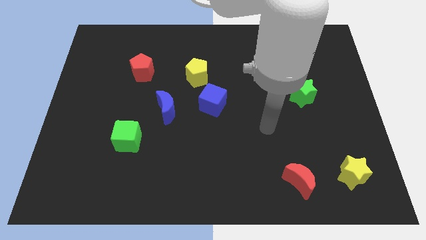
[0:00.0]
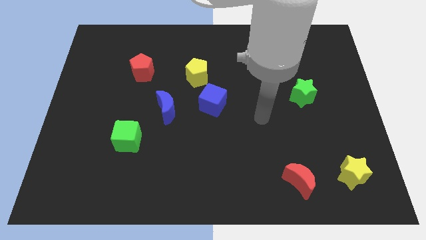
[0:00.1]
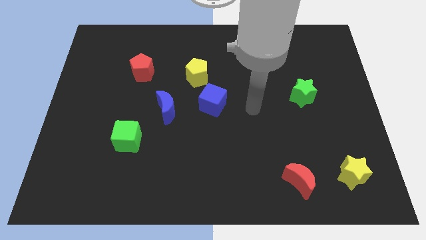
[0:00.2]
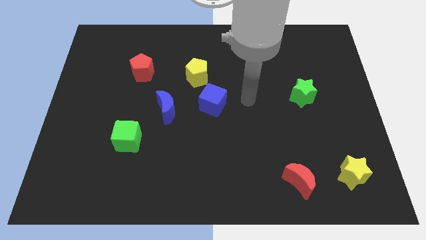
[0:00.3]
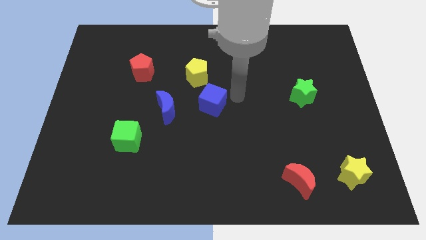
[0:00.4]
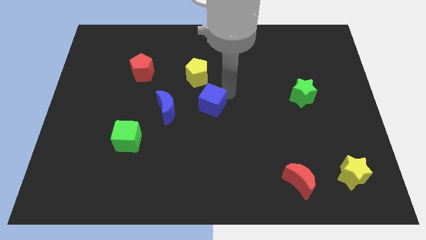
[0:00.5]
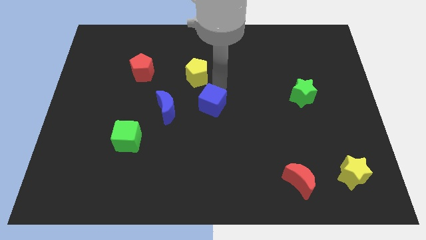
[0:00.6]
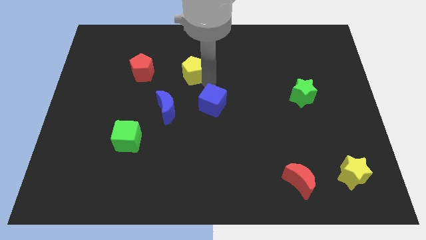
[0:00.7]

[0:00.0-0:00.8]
move the blue cube away from the yellow pentagon

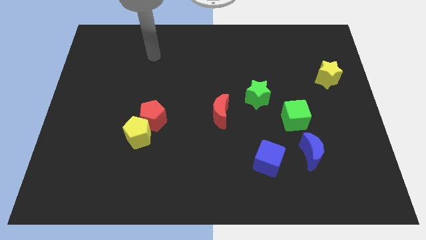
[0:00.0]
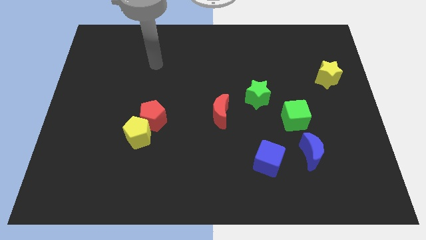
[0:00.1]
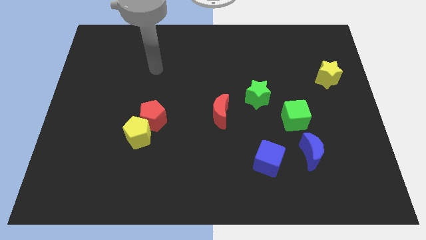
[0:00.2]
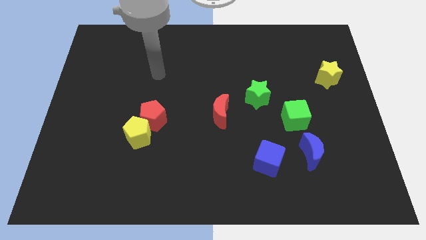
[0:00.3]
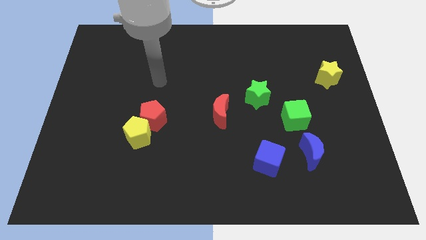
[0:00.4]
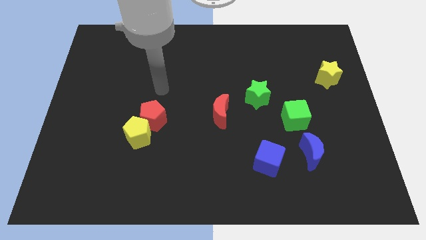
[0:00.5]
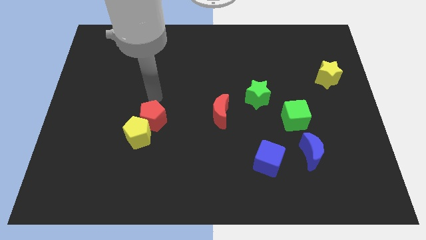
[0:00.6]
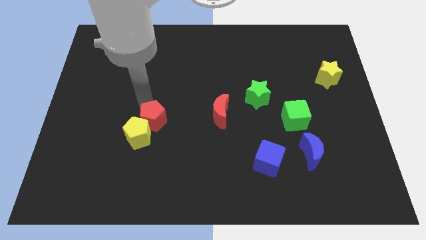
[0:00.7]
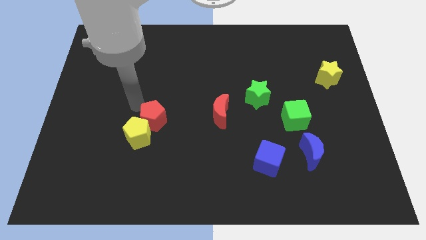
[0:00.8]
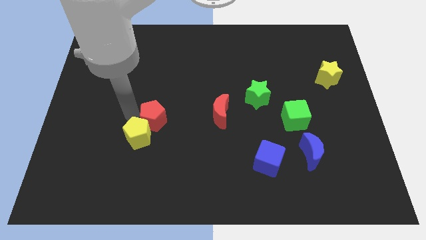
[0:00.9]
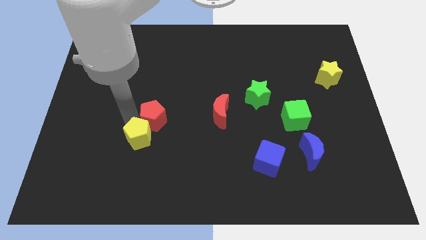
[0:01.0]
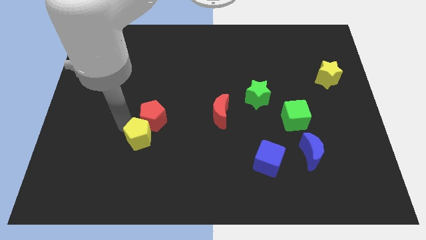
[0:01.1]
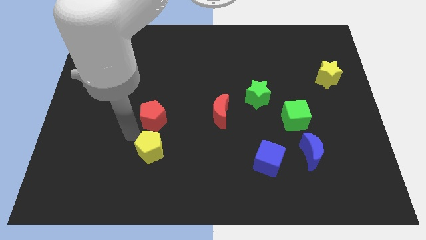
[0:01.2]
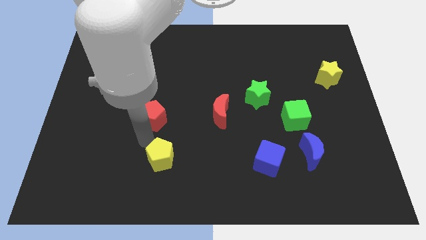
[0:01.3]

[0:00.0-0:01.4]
pull the red pentagon apart from the yellow pentagon

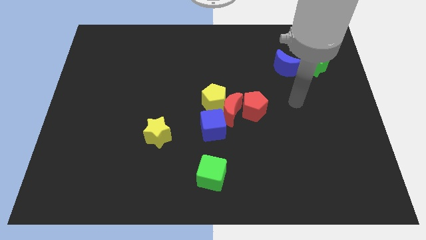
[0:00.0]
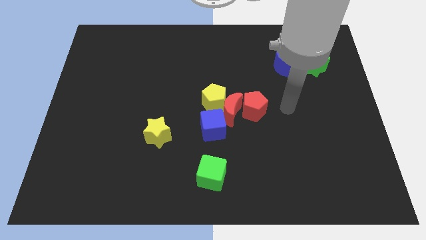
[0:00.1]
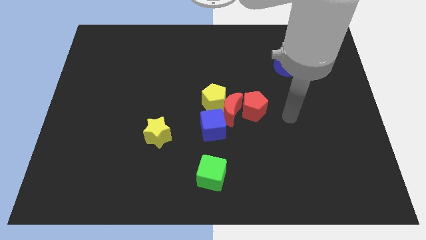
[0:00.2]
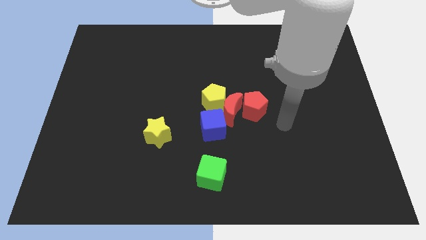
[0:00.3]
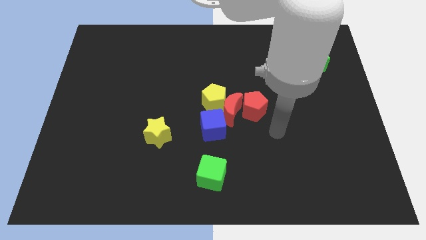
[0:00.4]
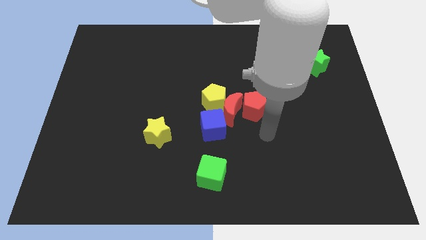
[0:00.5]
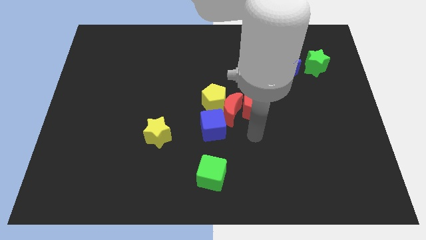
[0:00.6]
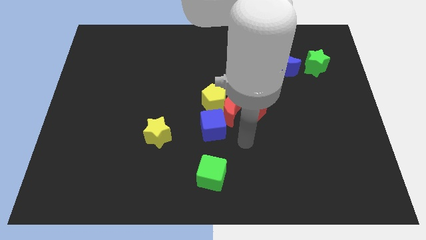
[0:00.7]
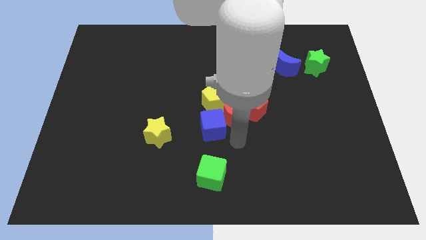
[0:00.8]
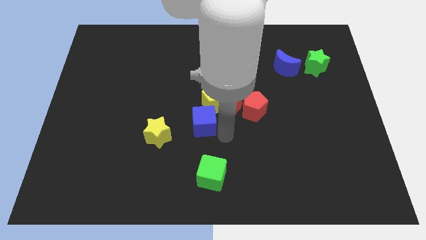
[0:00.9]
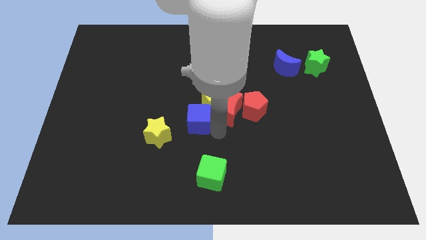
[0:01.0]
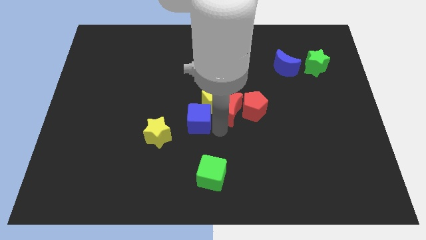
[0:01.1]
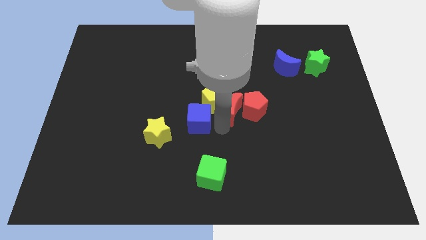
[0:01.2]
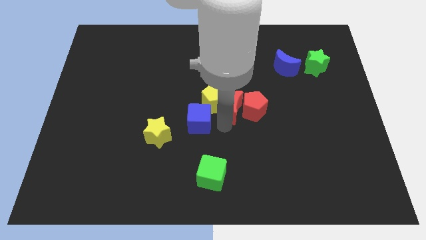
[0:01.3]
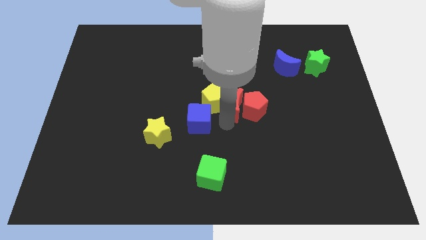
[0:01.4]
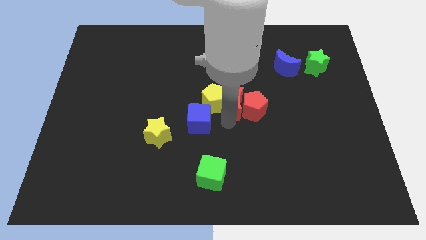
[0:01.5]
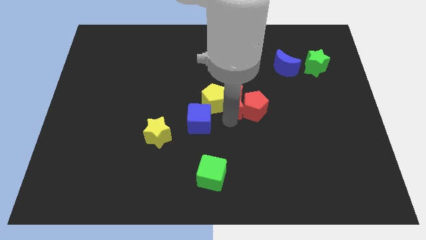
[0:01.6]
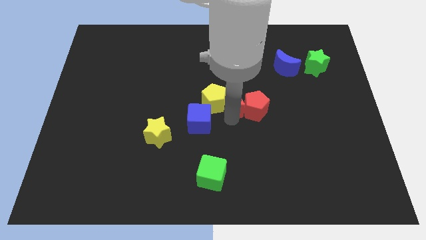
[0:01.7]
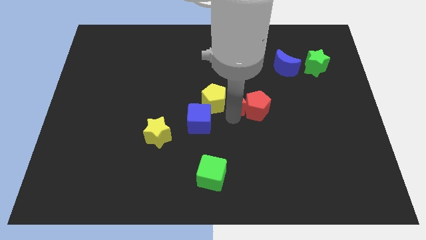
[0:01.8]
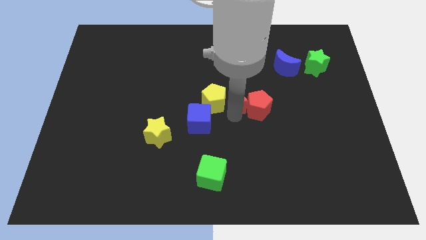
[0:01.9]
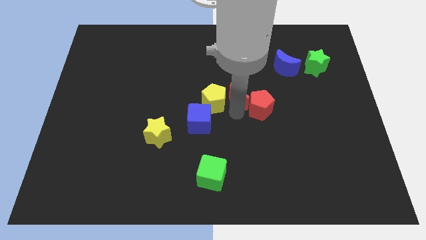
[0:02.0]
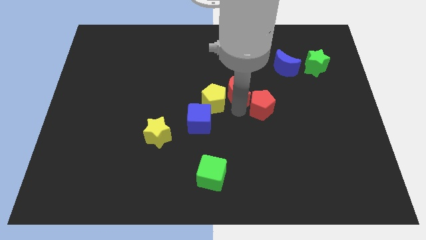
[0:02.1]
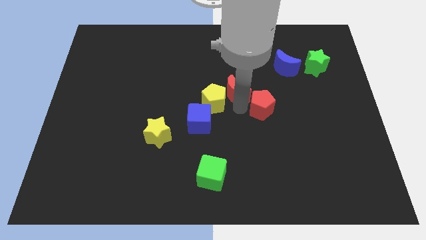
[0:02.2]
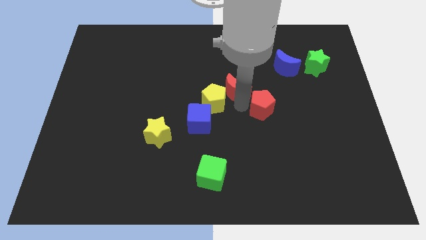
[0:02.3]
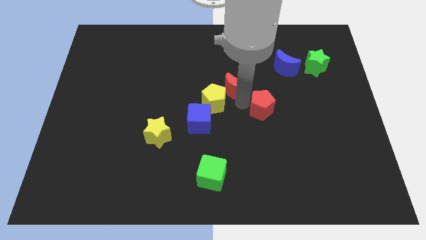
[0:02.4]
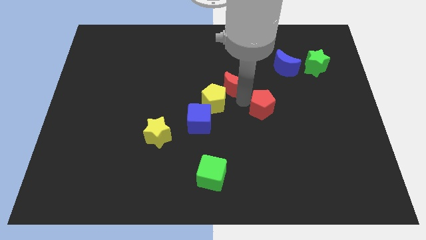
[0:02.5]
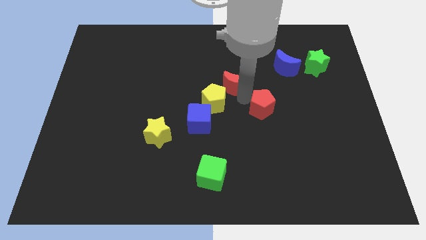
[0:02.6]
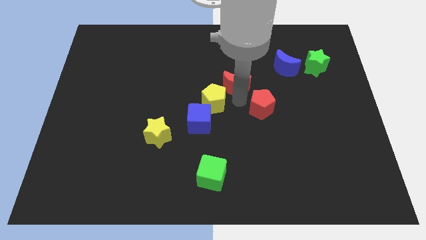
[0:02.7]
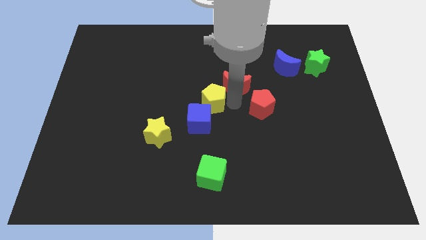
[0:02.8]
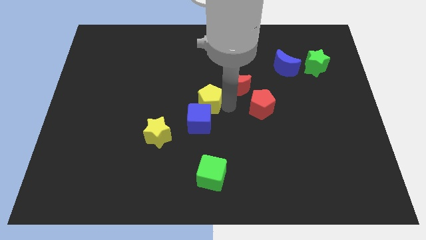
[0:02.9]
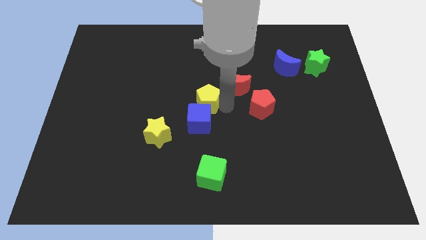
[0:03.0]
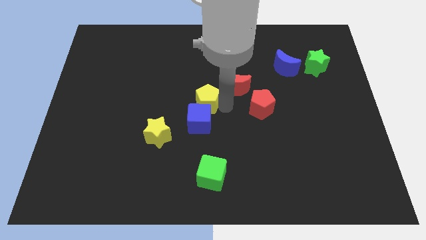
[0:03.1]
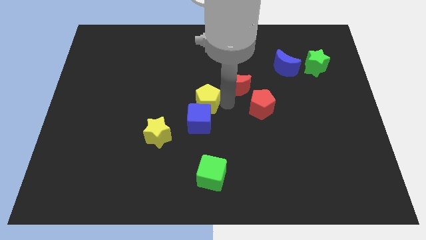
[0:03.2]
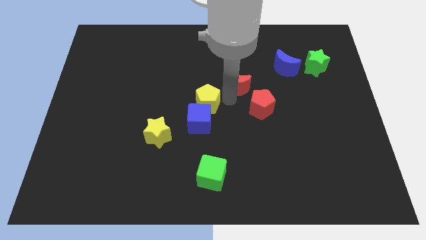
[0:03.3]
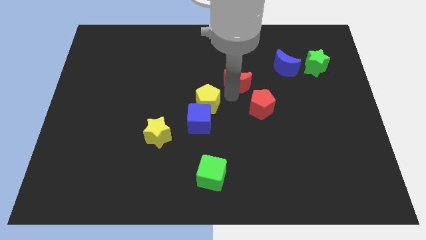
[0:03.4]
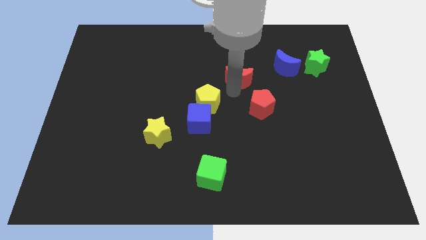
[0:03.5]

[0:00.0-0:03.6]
move the red moon away from the yellow pentagon, red pentagon, and blue cube

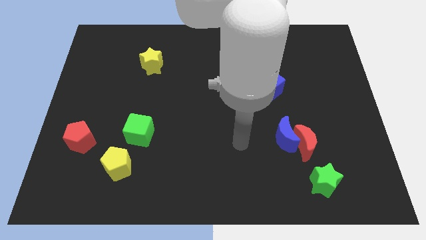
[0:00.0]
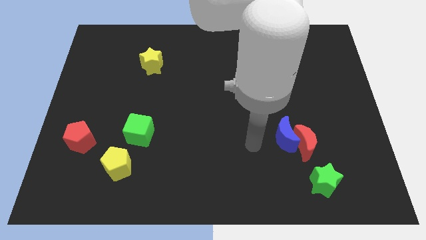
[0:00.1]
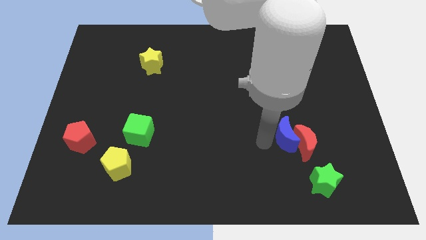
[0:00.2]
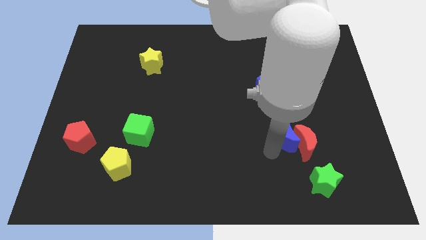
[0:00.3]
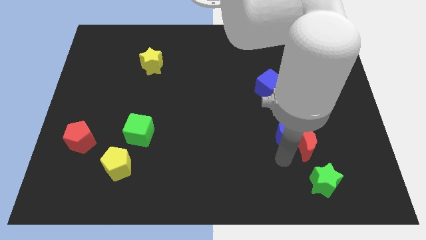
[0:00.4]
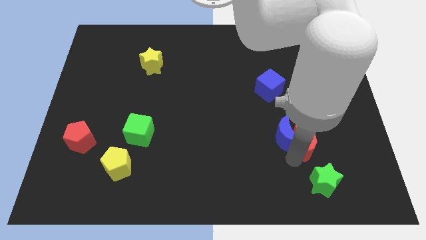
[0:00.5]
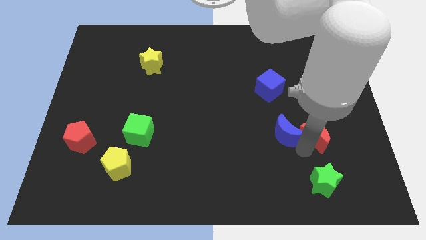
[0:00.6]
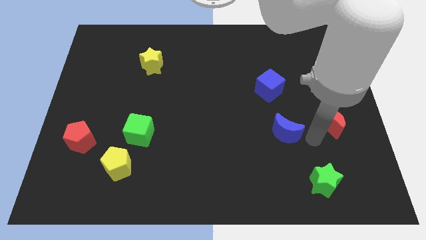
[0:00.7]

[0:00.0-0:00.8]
pull the blue moon apart from the red moon

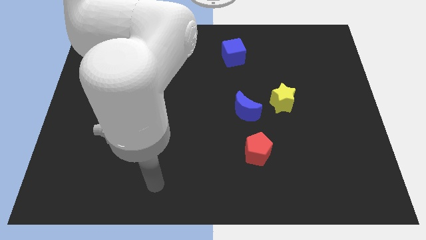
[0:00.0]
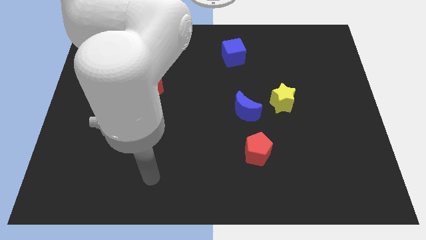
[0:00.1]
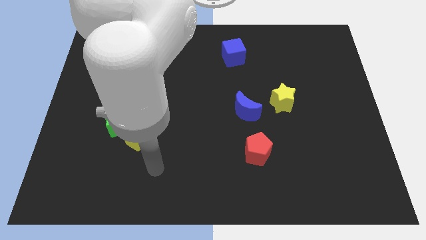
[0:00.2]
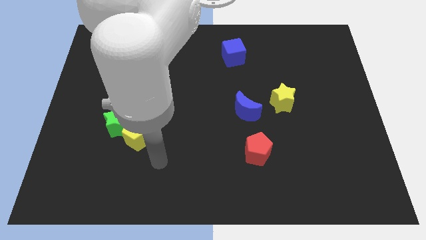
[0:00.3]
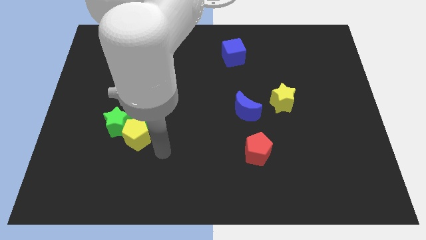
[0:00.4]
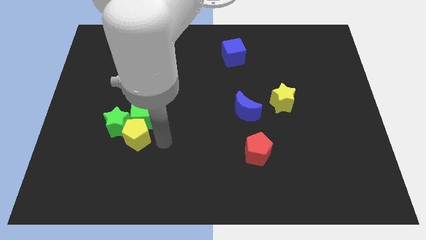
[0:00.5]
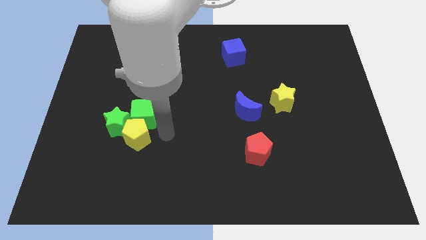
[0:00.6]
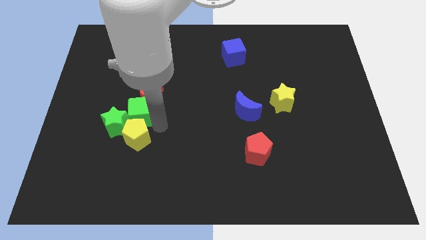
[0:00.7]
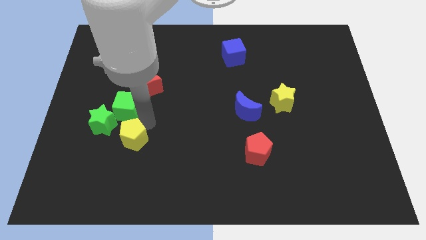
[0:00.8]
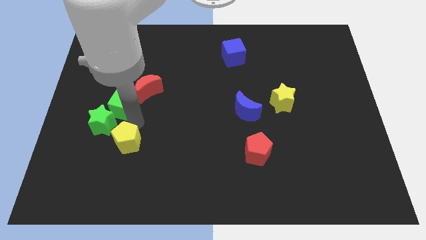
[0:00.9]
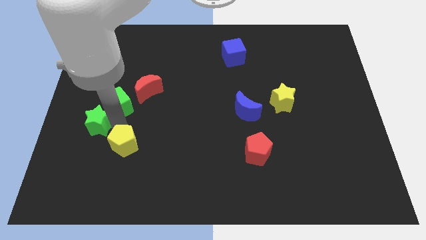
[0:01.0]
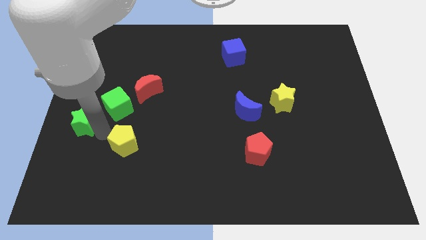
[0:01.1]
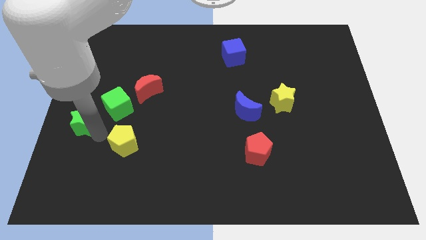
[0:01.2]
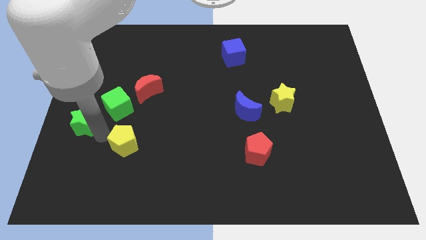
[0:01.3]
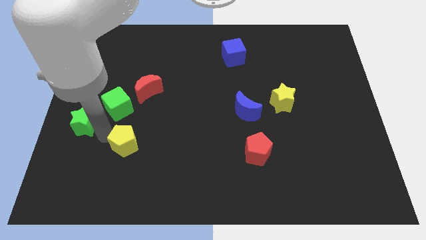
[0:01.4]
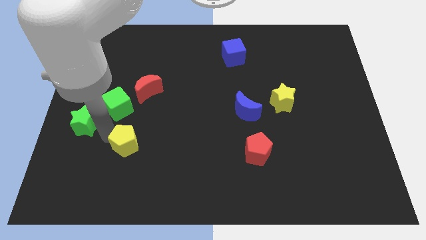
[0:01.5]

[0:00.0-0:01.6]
separate the yellow pentagon from the green cube and green star

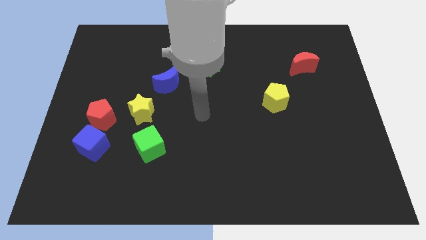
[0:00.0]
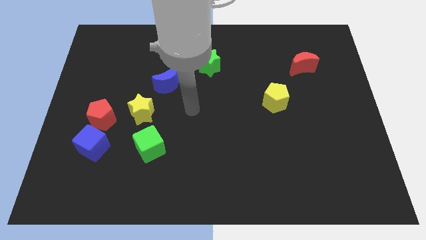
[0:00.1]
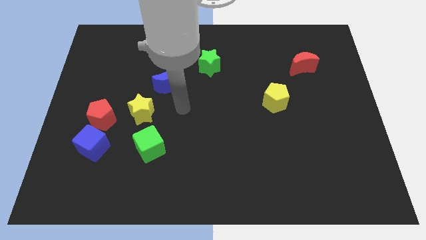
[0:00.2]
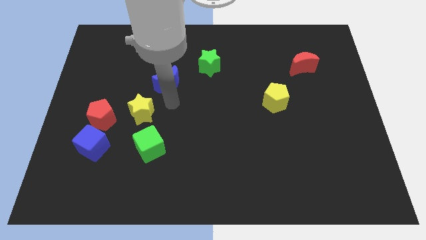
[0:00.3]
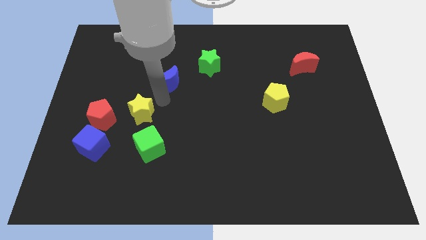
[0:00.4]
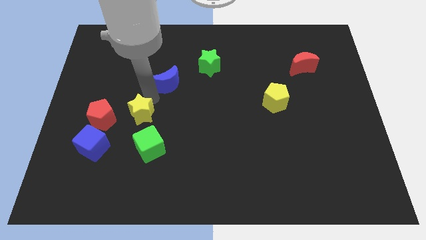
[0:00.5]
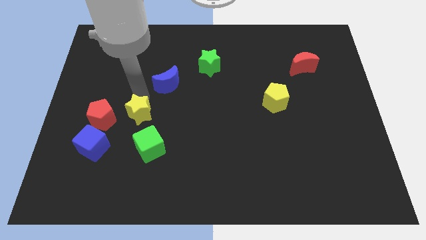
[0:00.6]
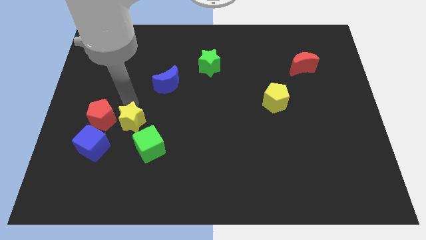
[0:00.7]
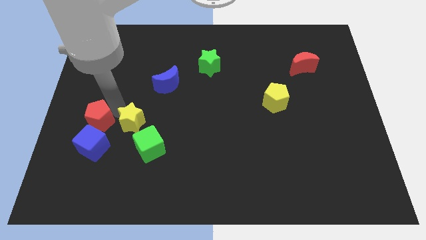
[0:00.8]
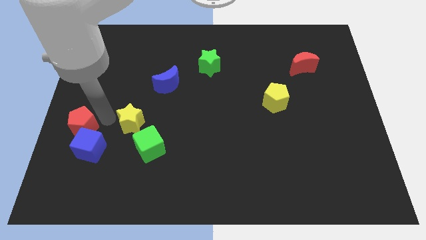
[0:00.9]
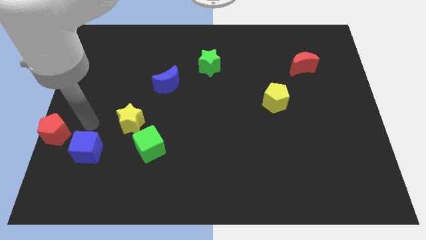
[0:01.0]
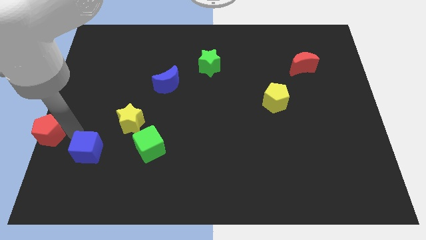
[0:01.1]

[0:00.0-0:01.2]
move the blue cube away from the red pentagon
